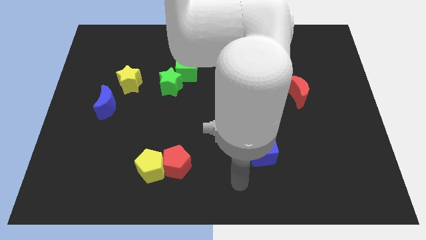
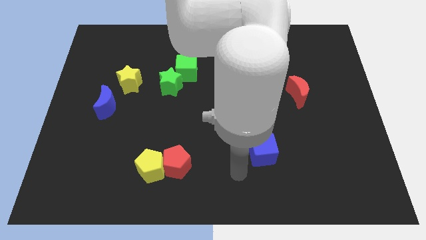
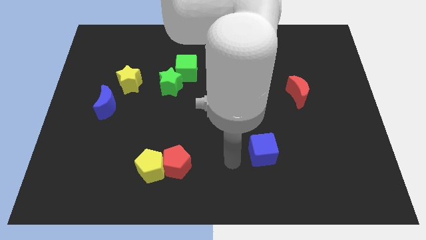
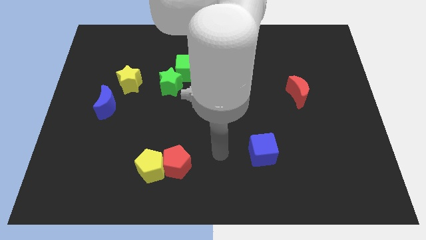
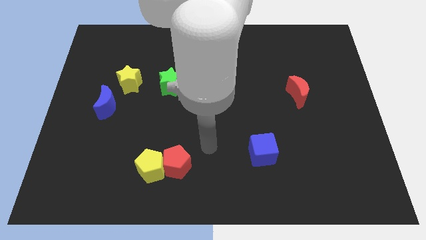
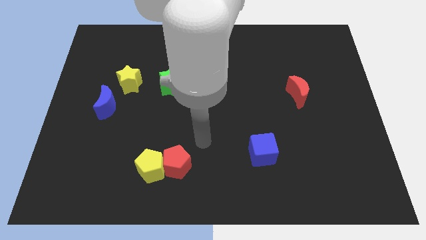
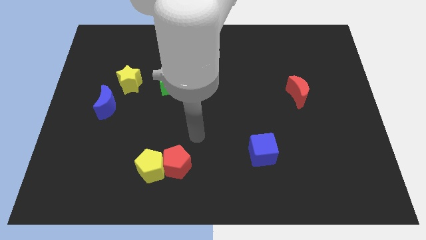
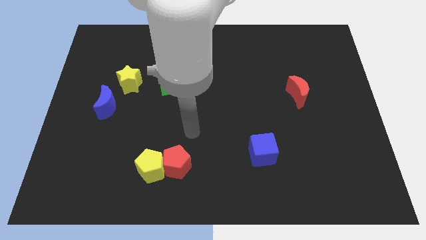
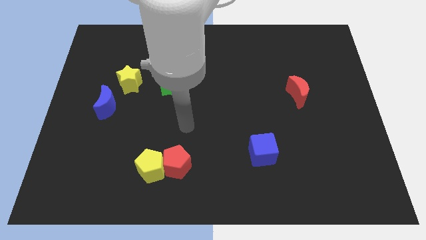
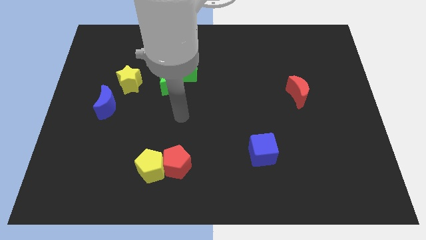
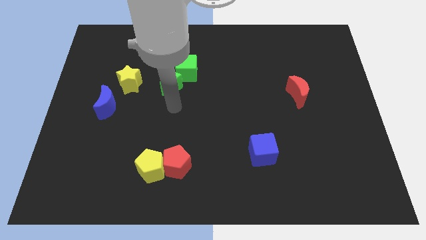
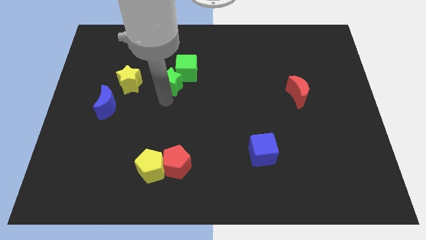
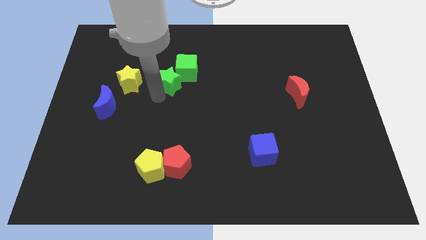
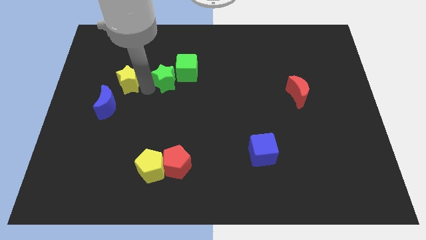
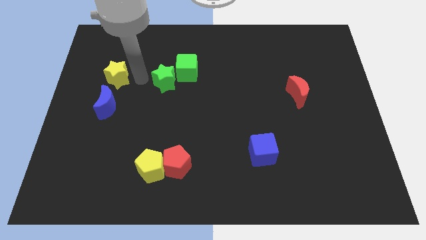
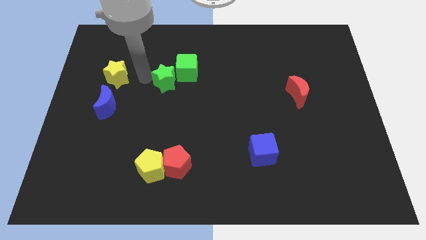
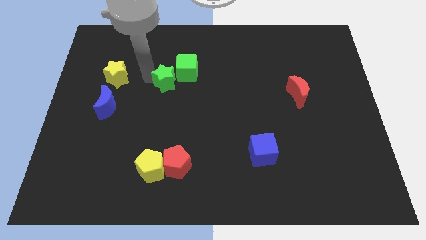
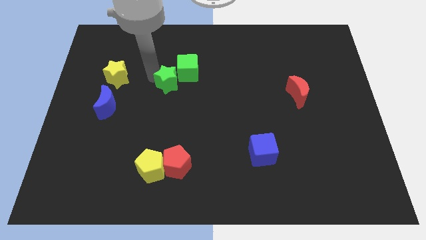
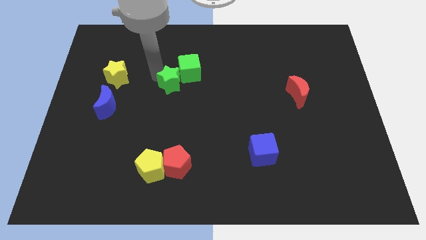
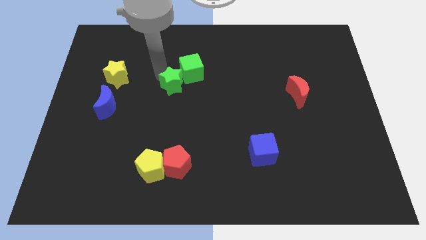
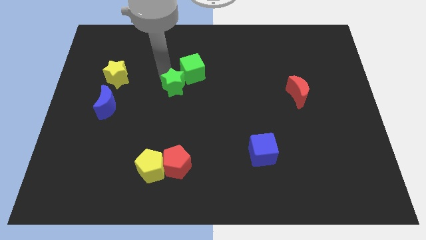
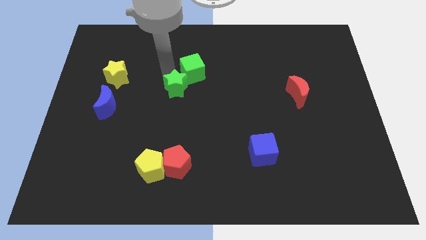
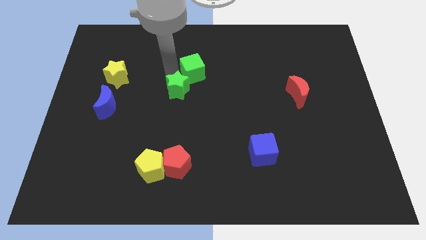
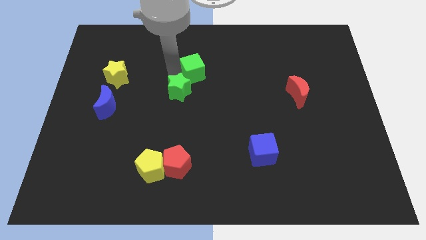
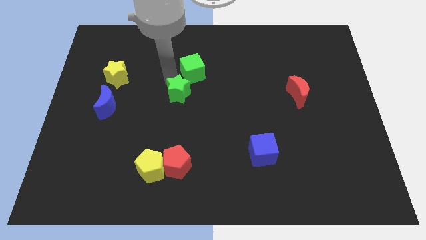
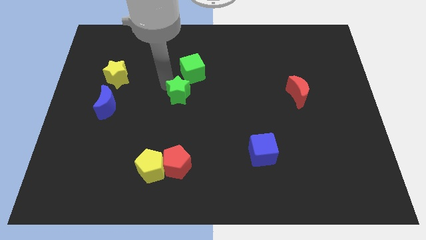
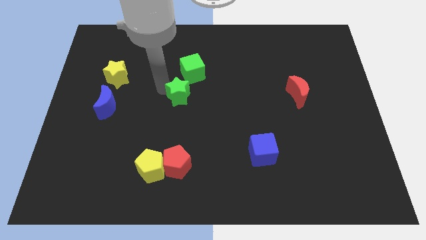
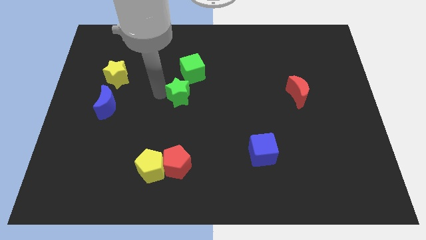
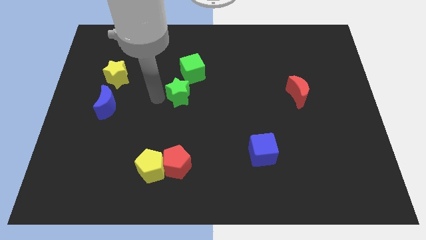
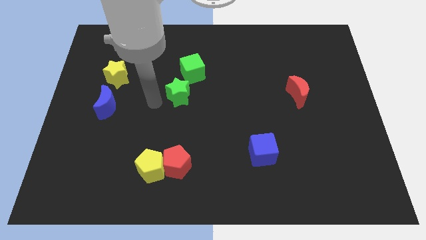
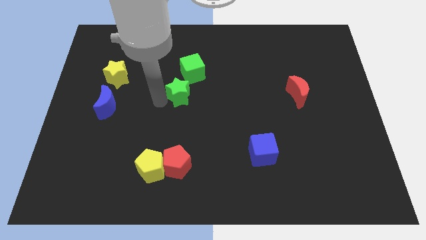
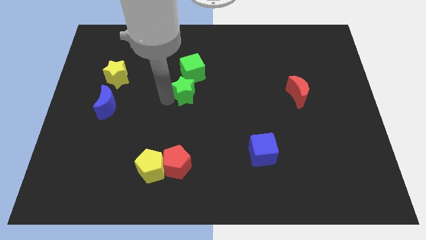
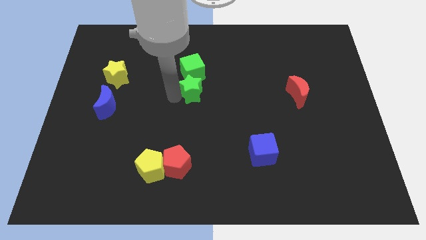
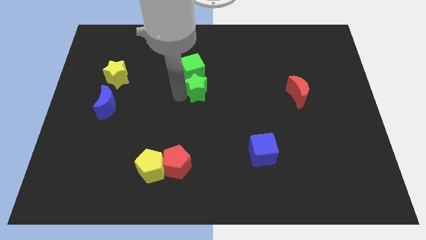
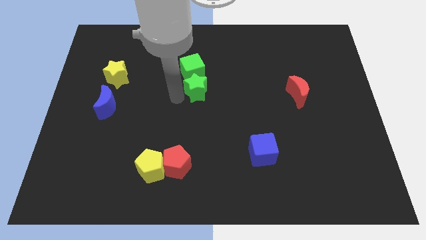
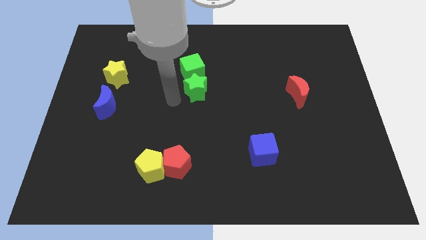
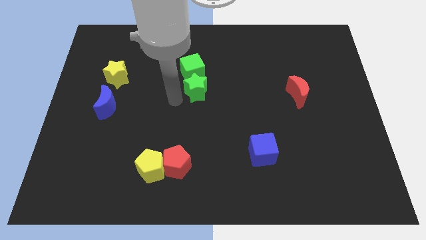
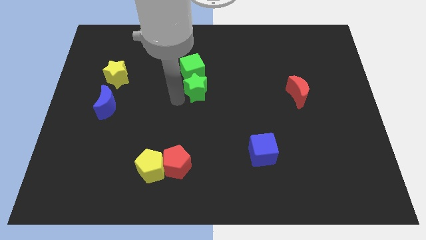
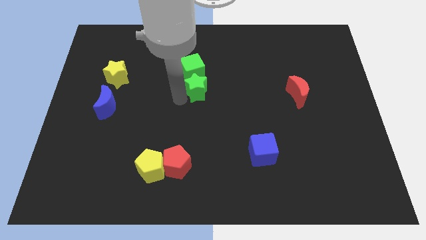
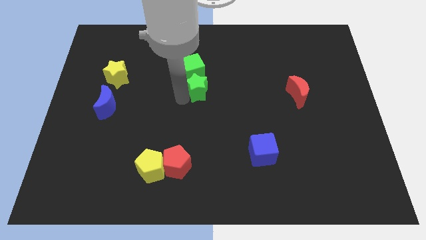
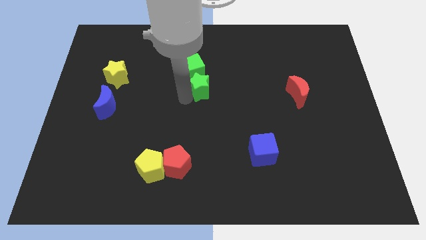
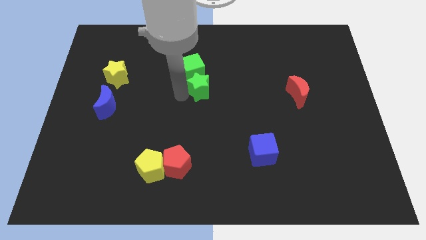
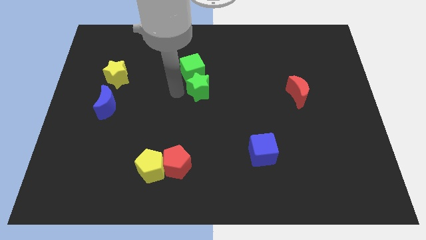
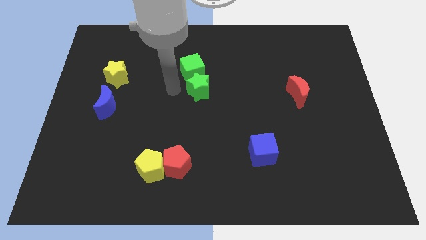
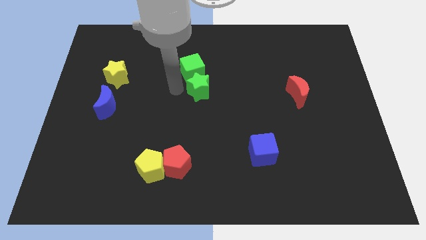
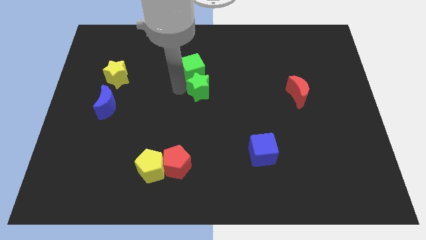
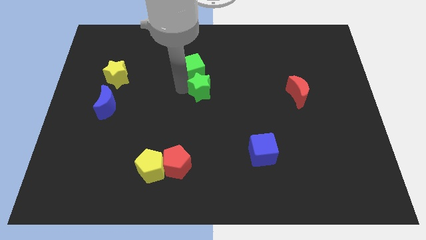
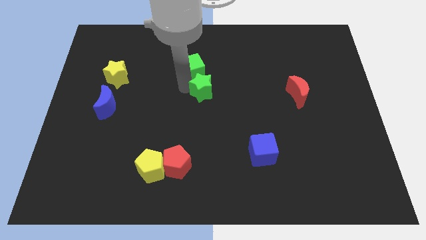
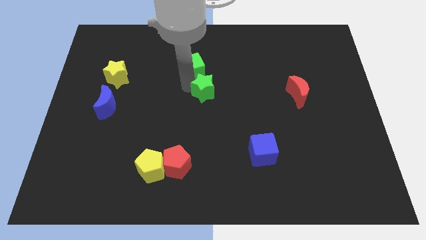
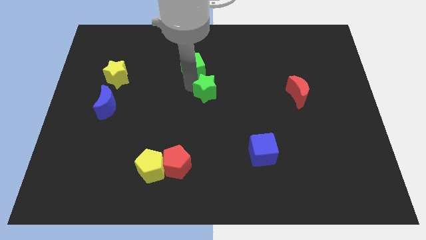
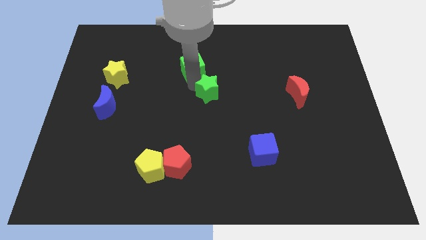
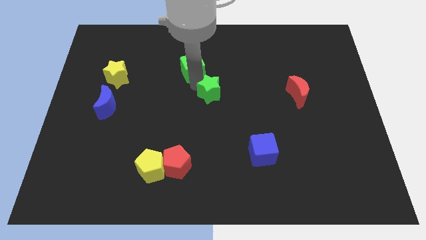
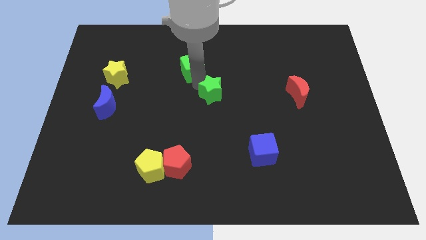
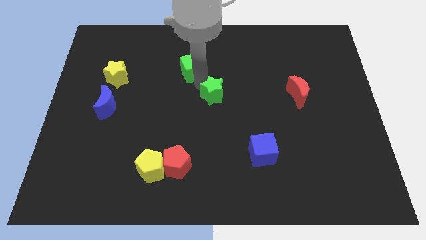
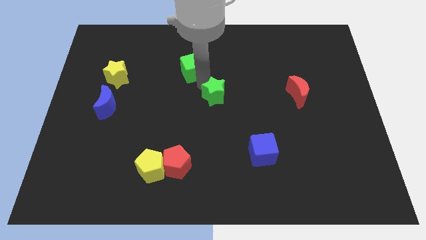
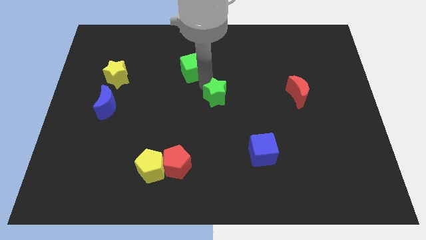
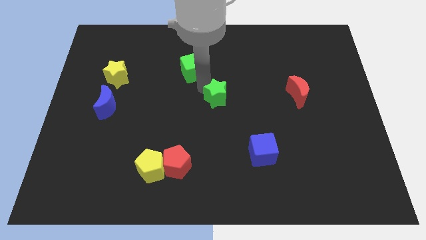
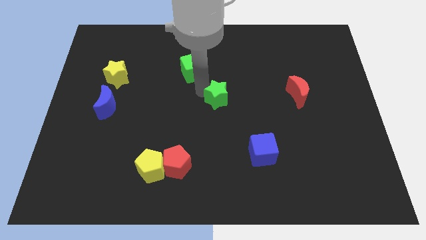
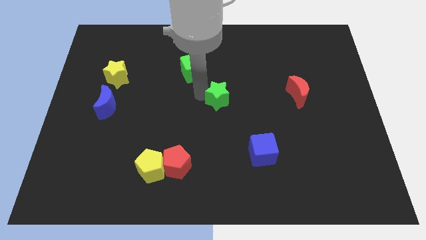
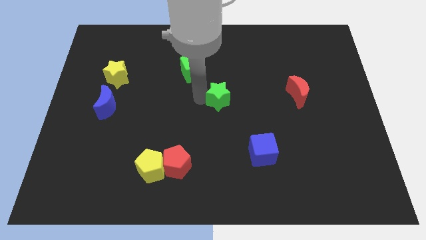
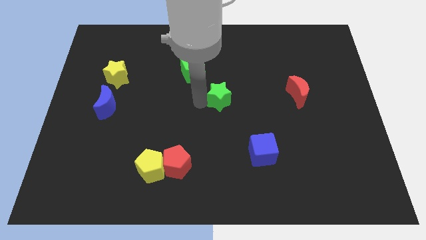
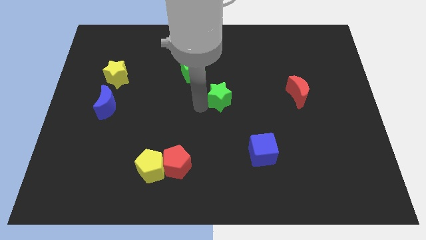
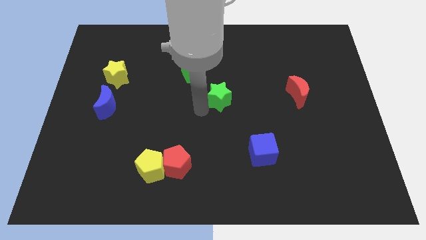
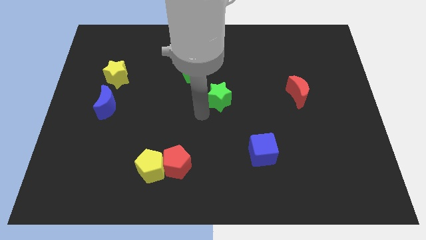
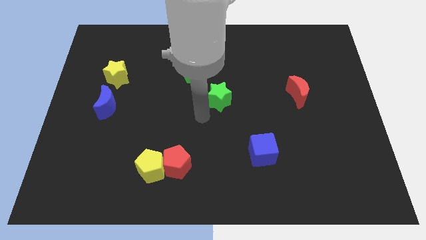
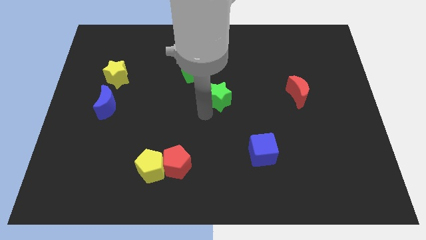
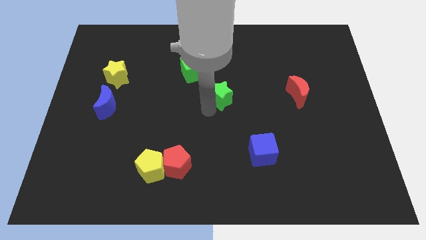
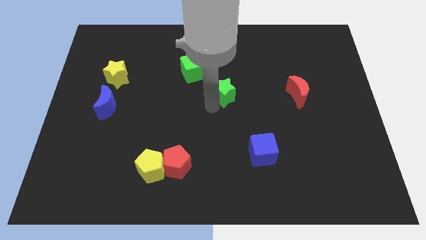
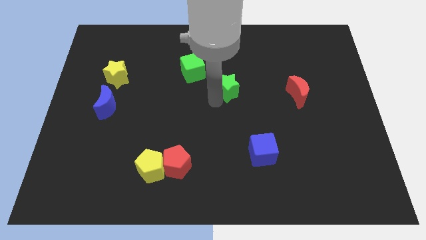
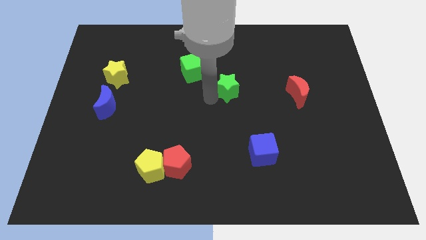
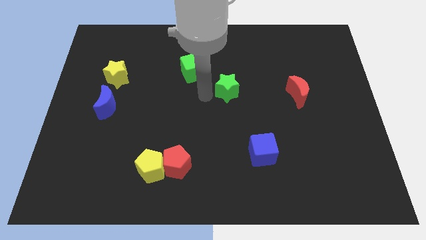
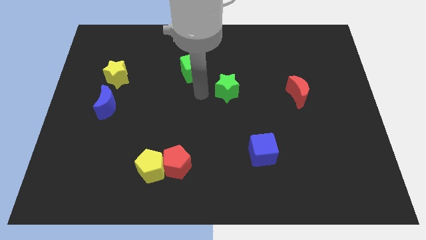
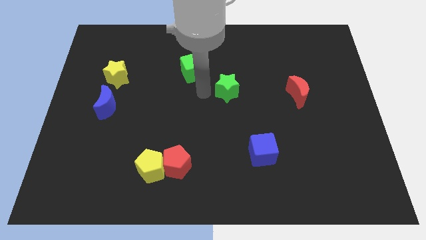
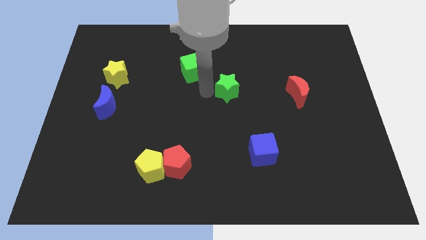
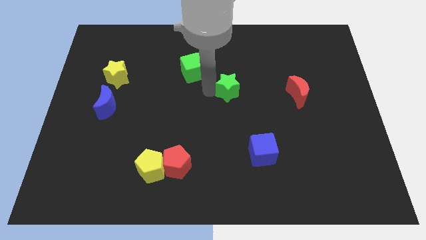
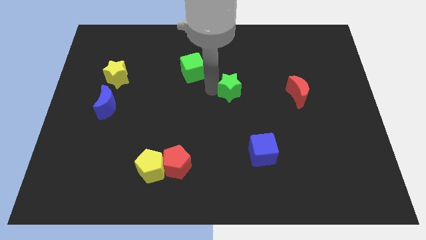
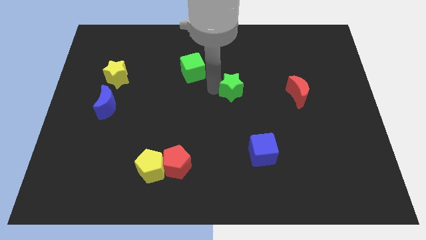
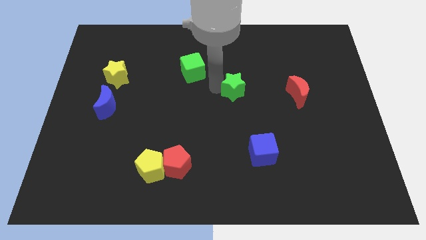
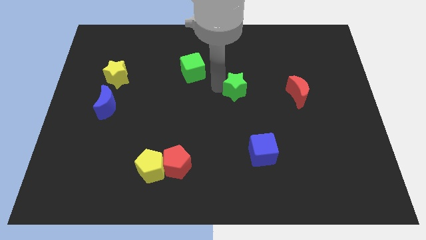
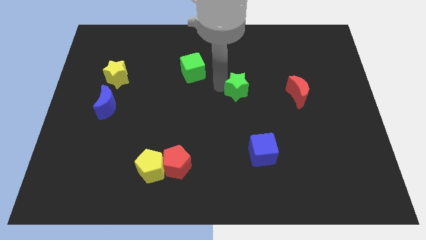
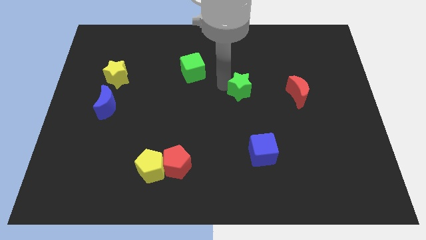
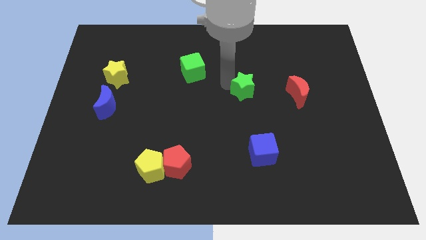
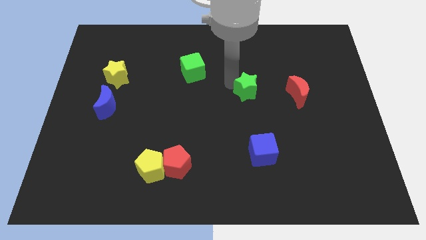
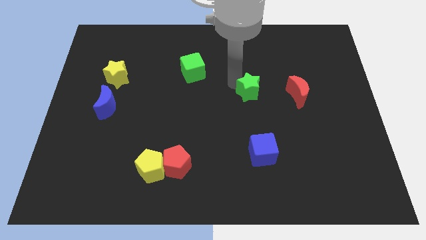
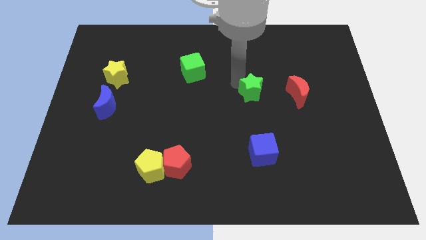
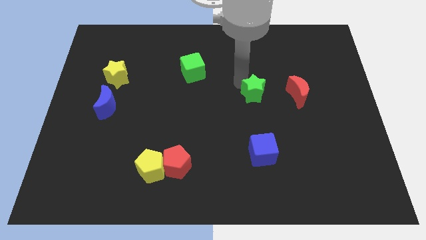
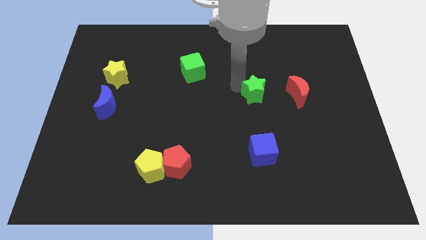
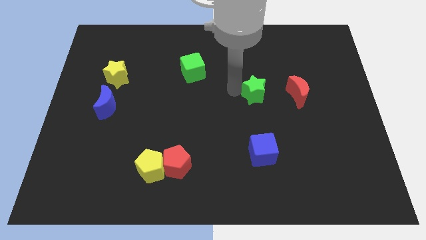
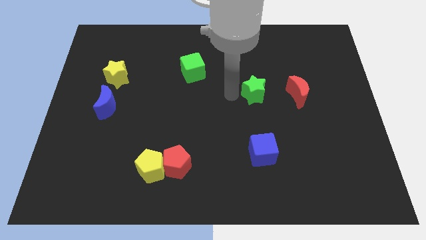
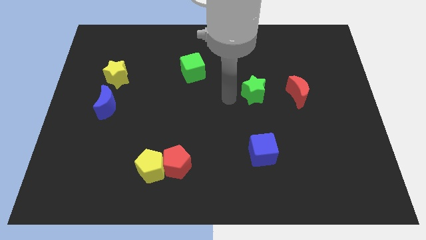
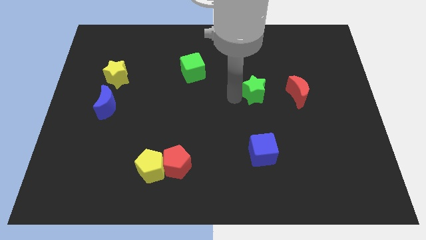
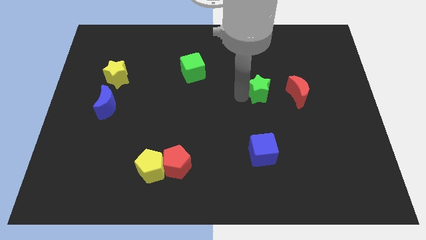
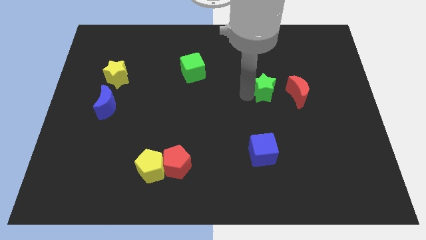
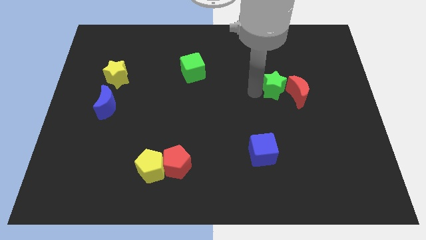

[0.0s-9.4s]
slide the green star towards the red moon
